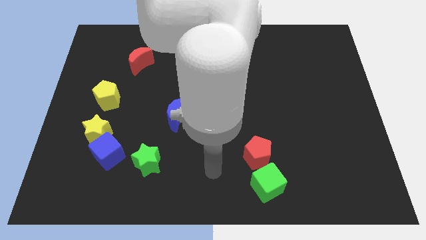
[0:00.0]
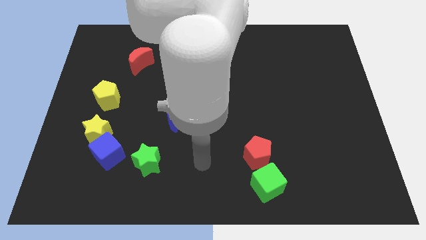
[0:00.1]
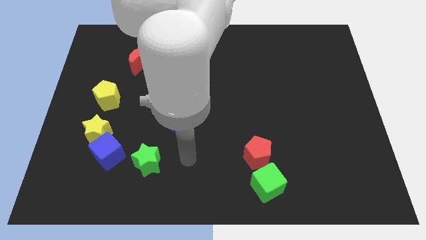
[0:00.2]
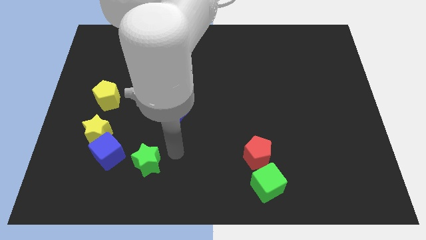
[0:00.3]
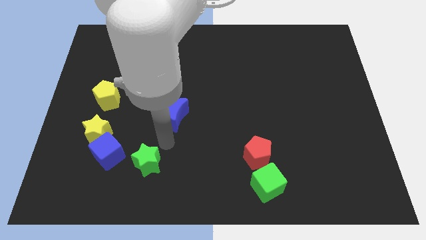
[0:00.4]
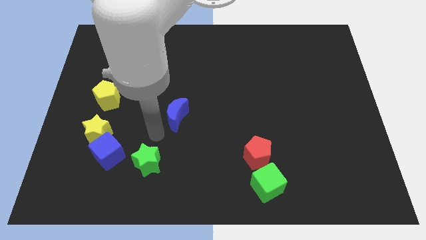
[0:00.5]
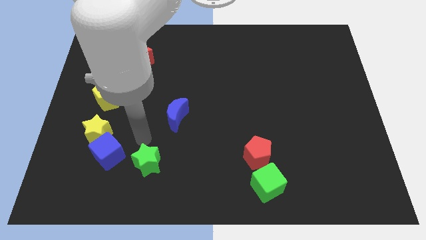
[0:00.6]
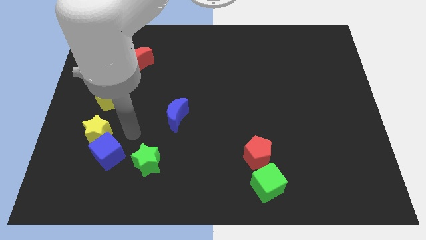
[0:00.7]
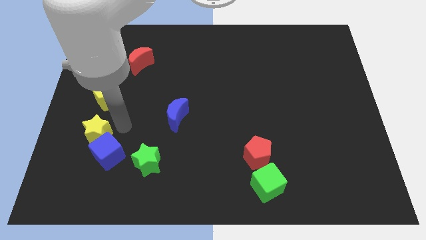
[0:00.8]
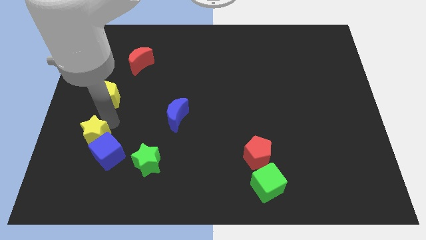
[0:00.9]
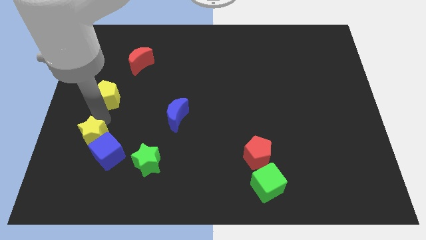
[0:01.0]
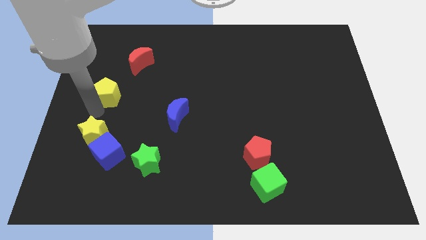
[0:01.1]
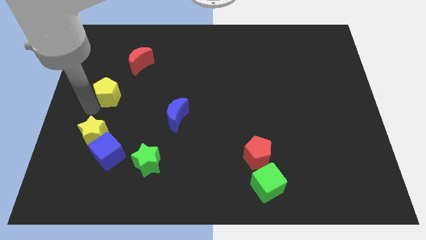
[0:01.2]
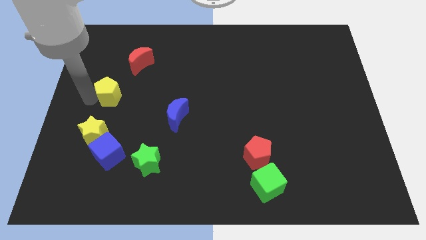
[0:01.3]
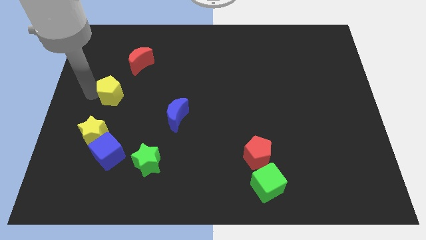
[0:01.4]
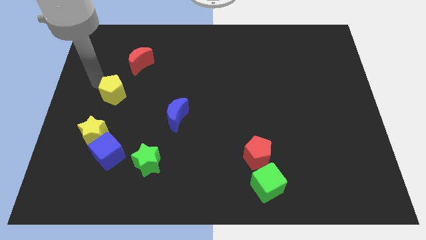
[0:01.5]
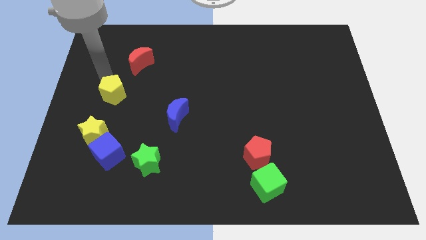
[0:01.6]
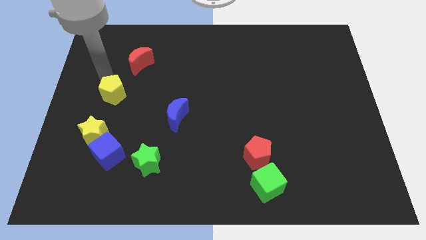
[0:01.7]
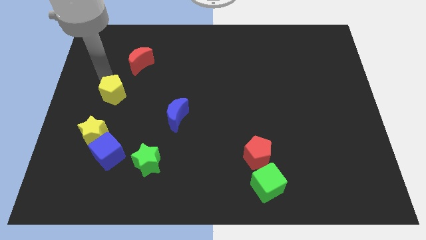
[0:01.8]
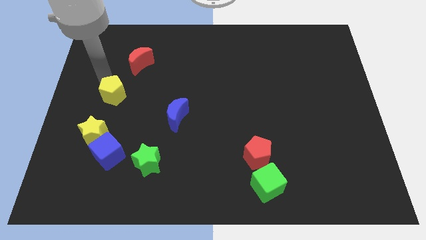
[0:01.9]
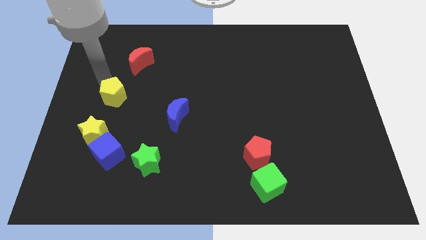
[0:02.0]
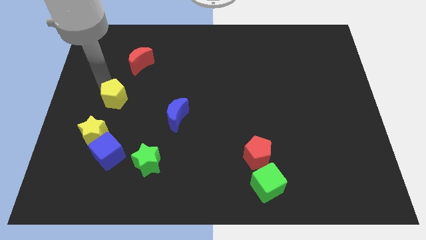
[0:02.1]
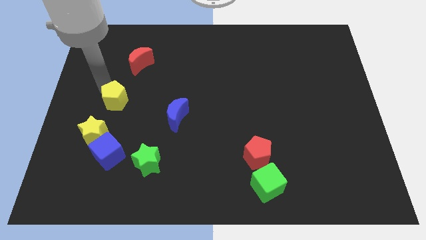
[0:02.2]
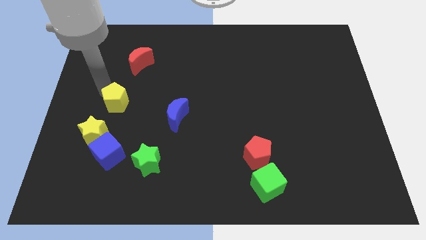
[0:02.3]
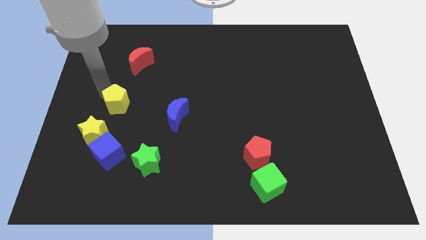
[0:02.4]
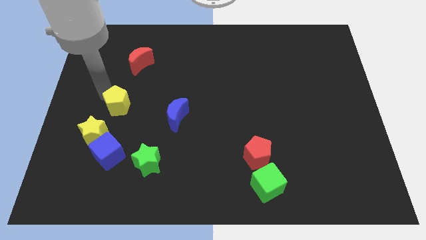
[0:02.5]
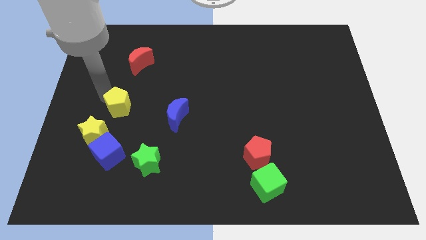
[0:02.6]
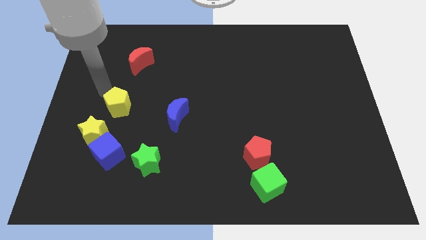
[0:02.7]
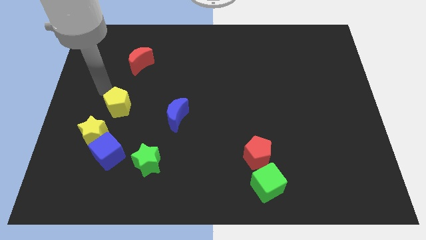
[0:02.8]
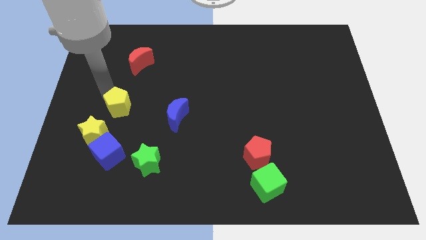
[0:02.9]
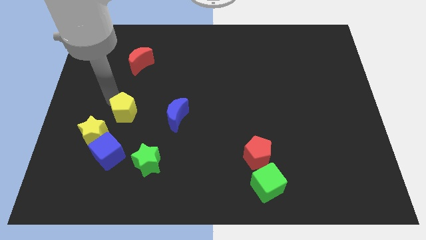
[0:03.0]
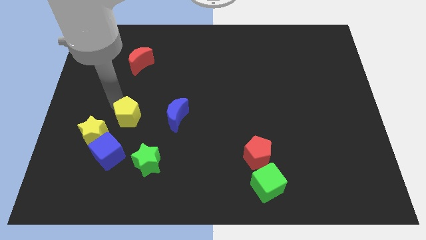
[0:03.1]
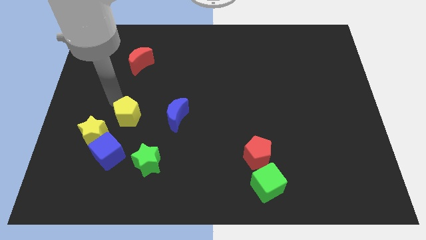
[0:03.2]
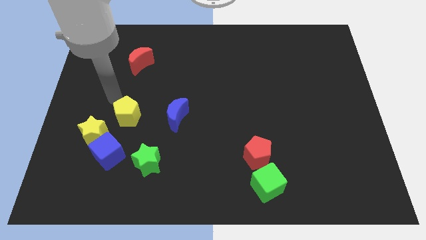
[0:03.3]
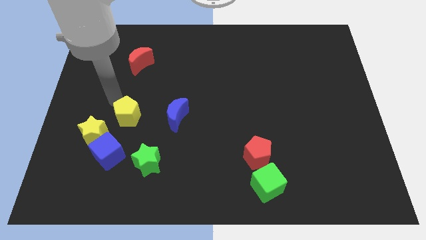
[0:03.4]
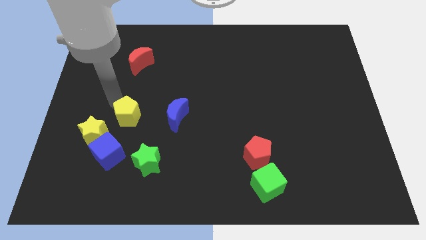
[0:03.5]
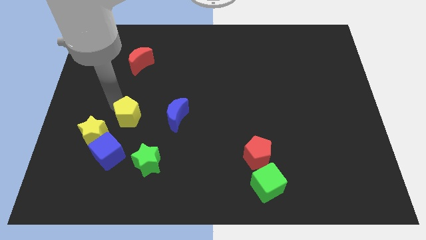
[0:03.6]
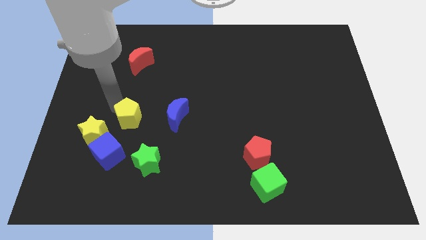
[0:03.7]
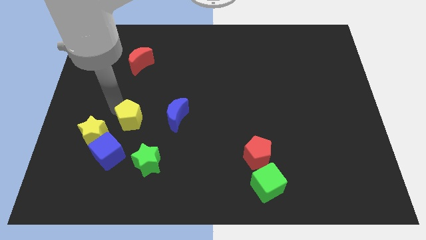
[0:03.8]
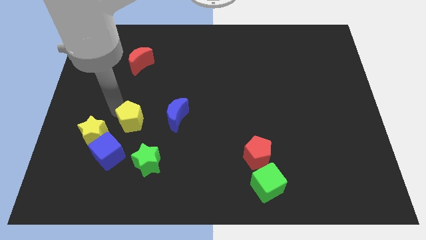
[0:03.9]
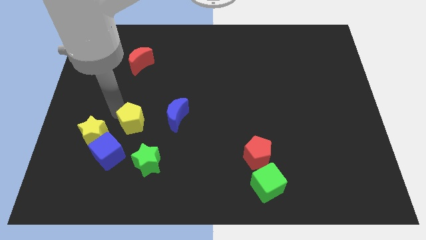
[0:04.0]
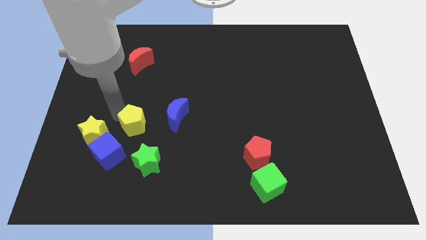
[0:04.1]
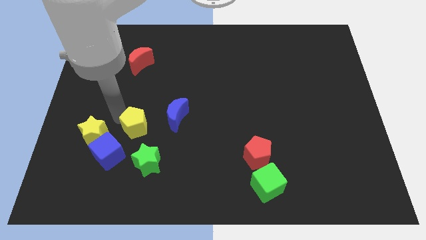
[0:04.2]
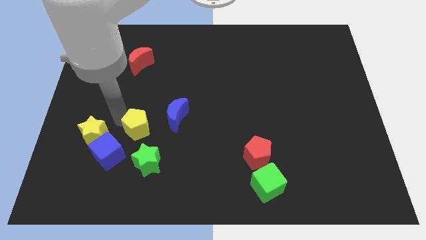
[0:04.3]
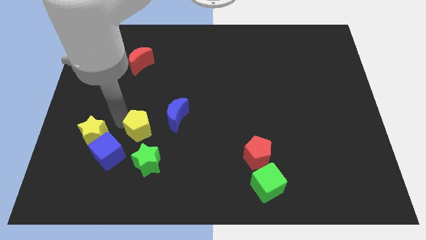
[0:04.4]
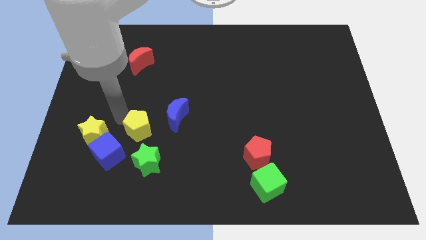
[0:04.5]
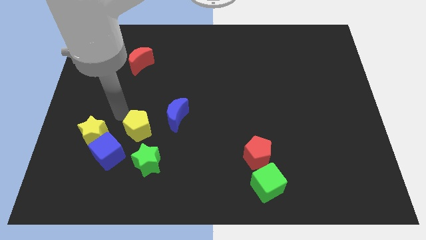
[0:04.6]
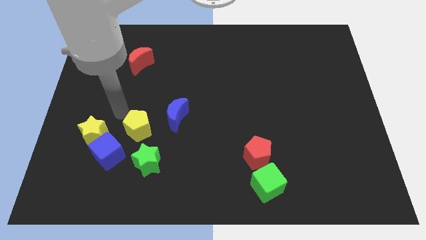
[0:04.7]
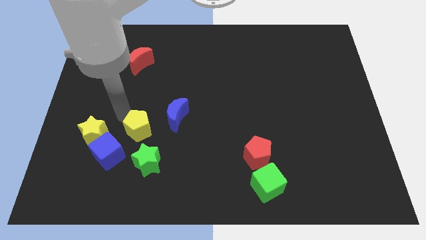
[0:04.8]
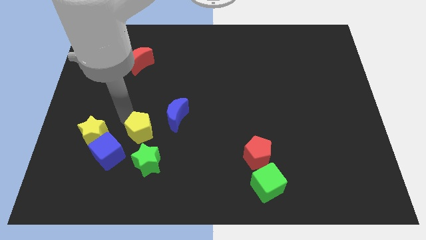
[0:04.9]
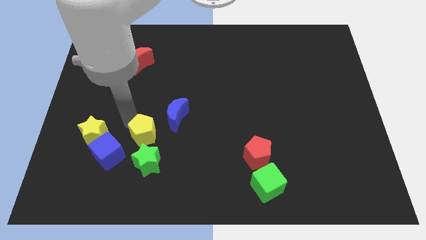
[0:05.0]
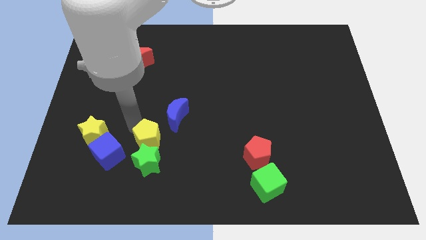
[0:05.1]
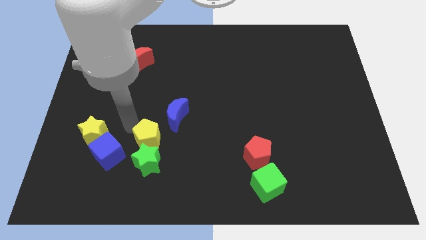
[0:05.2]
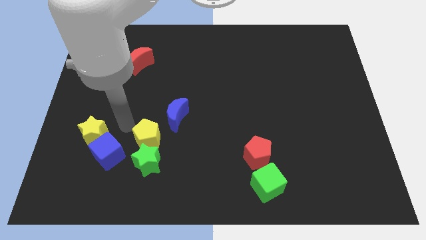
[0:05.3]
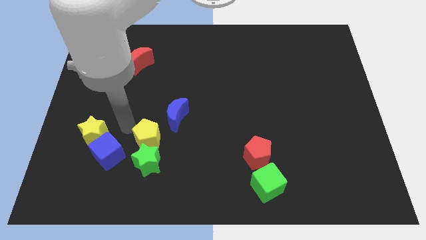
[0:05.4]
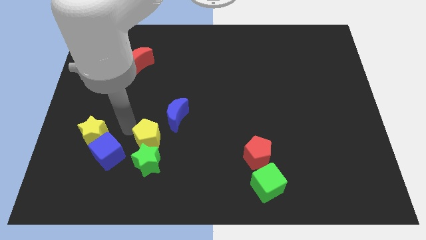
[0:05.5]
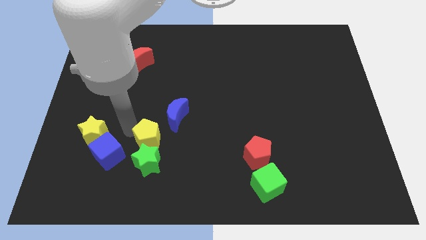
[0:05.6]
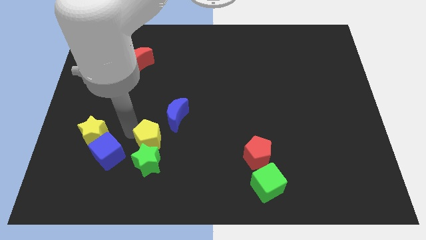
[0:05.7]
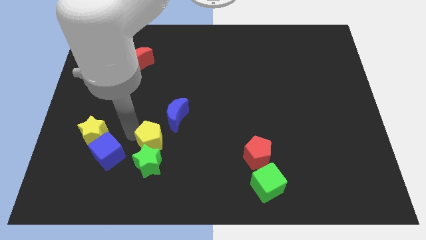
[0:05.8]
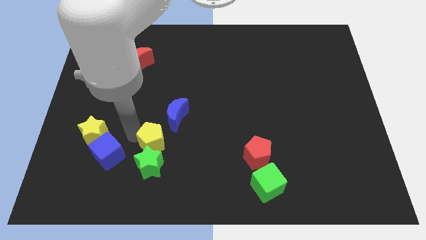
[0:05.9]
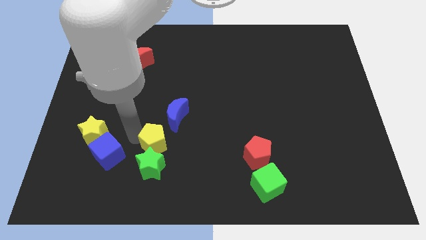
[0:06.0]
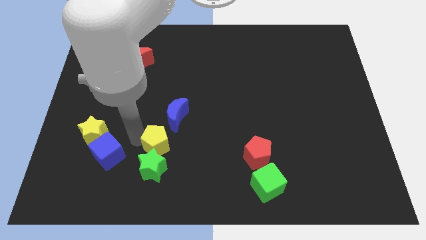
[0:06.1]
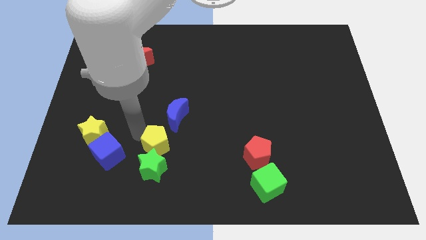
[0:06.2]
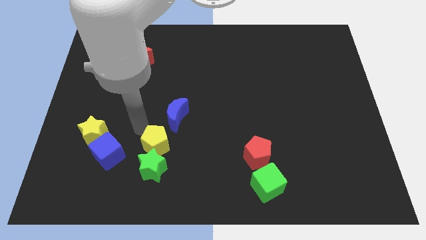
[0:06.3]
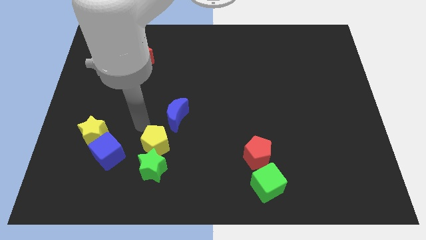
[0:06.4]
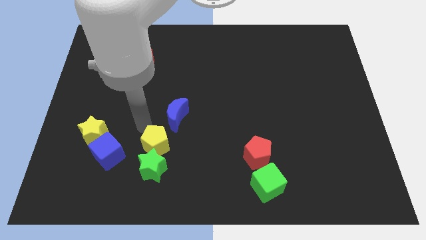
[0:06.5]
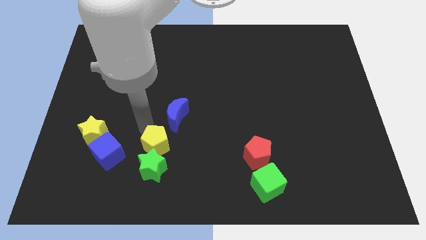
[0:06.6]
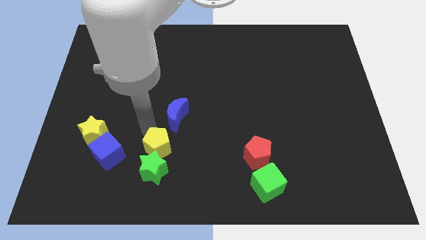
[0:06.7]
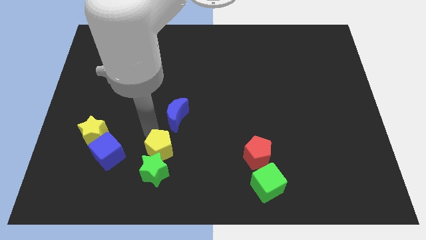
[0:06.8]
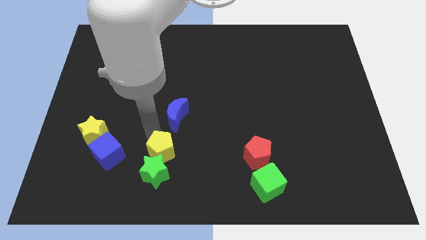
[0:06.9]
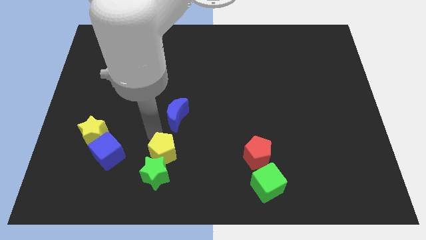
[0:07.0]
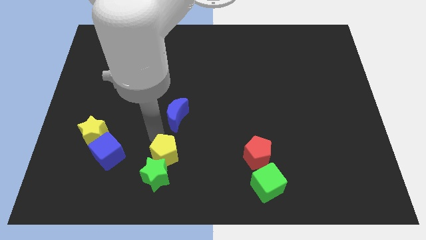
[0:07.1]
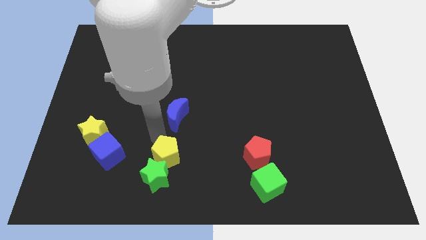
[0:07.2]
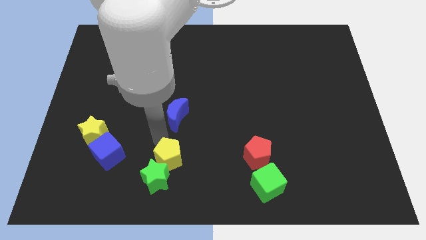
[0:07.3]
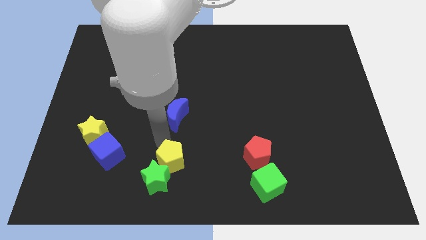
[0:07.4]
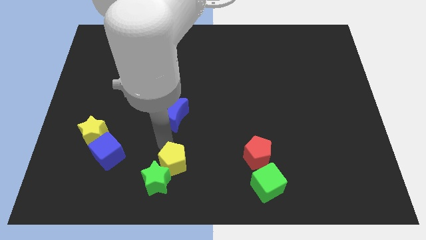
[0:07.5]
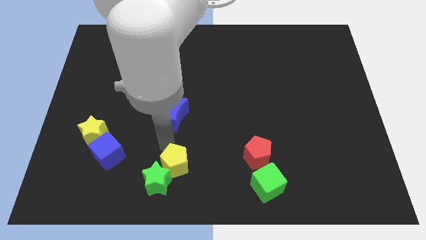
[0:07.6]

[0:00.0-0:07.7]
put the yellow pentagon to the bottom side
